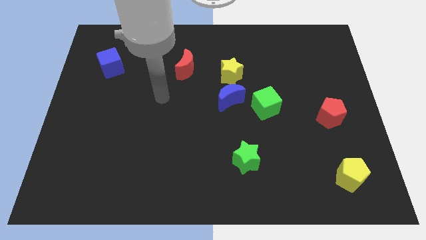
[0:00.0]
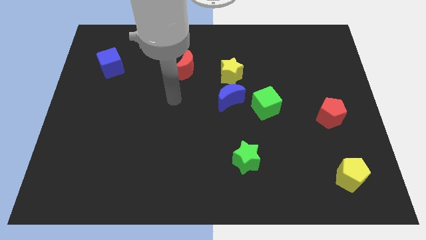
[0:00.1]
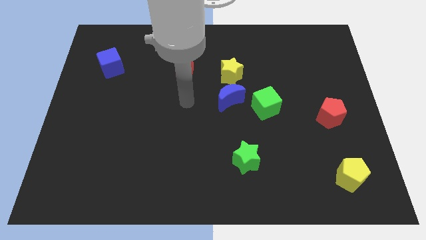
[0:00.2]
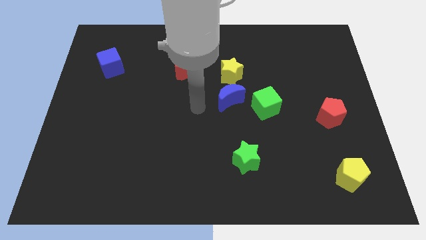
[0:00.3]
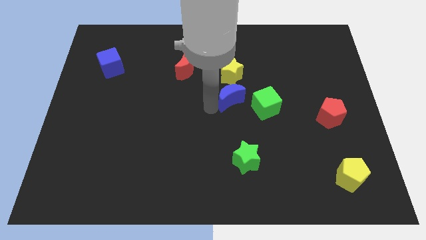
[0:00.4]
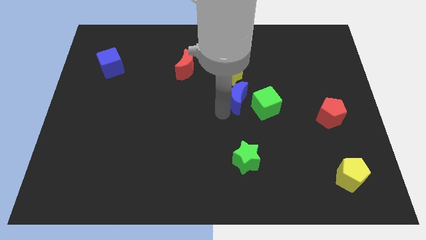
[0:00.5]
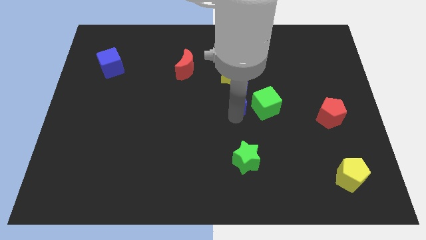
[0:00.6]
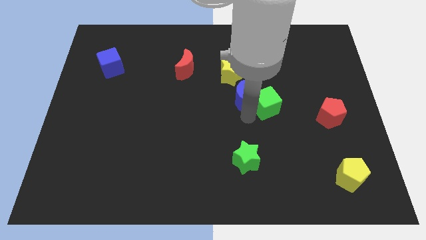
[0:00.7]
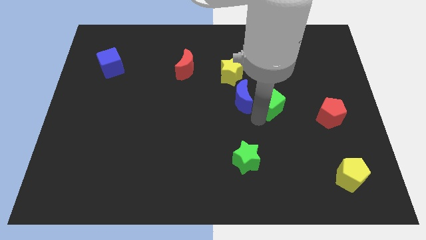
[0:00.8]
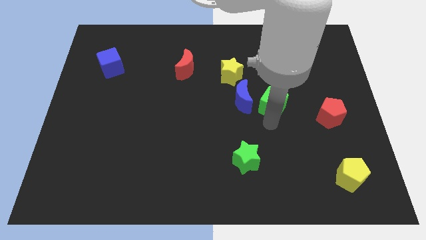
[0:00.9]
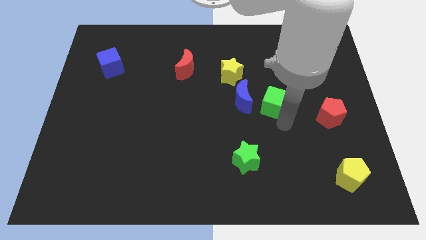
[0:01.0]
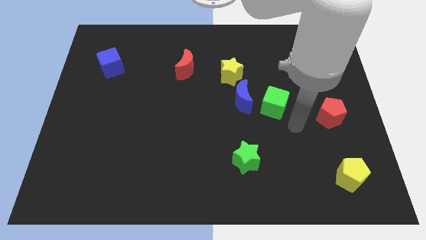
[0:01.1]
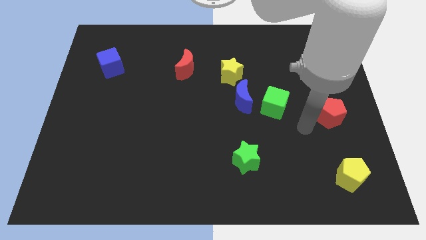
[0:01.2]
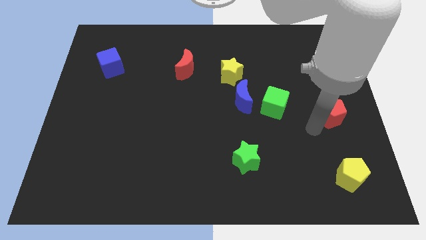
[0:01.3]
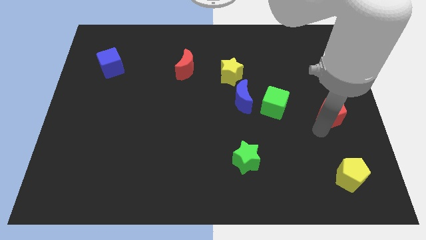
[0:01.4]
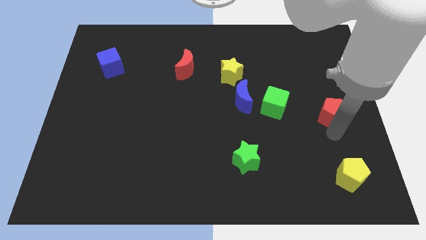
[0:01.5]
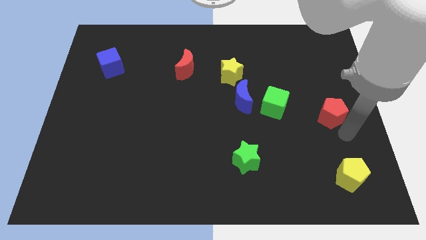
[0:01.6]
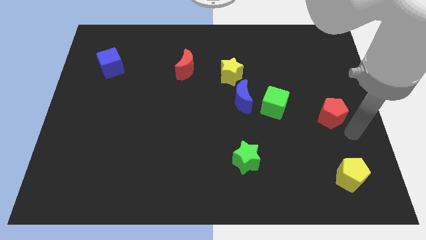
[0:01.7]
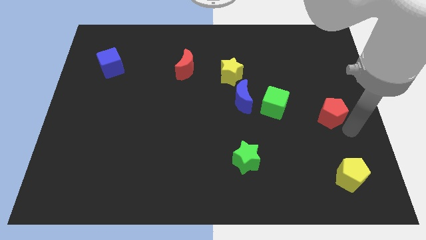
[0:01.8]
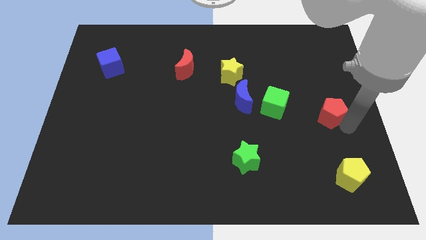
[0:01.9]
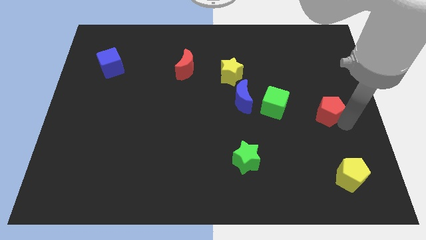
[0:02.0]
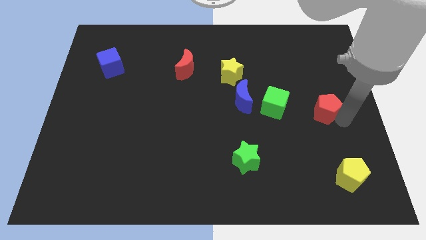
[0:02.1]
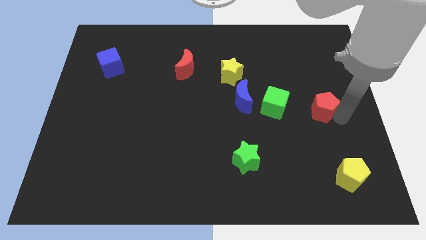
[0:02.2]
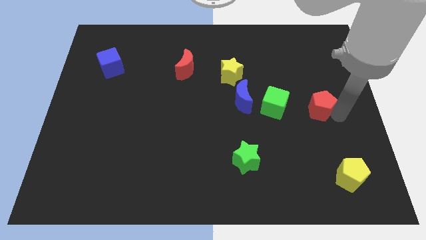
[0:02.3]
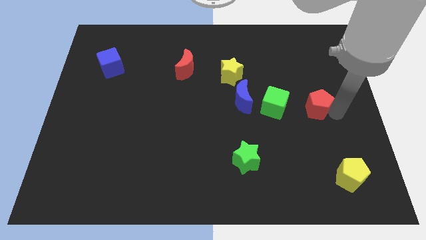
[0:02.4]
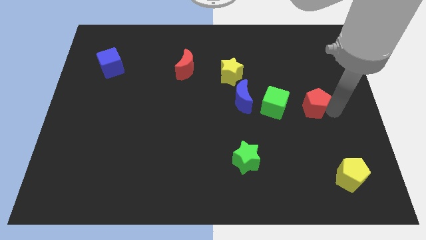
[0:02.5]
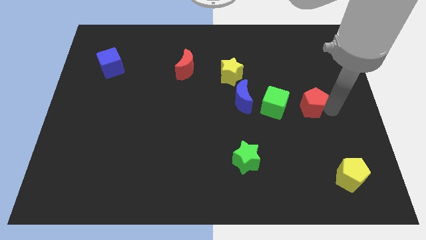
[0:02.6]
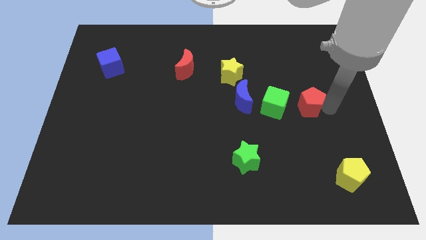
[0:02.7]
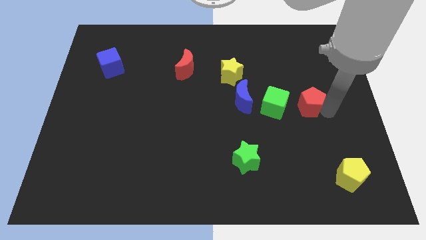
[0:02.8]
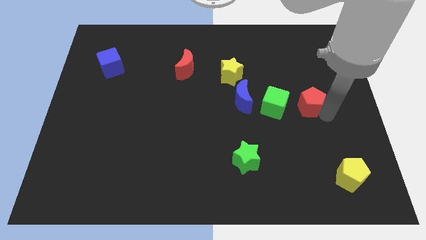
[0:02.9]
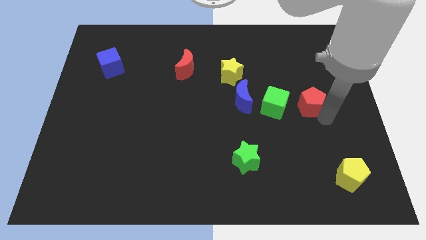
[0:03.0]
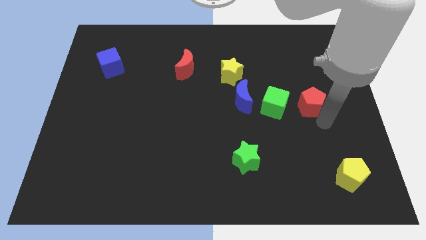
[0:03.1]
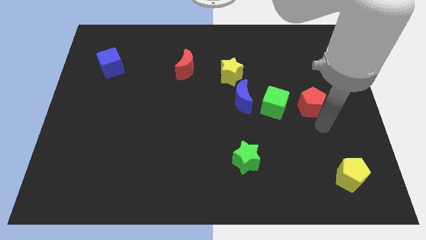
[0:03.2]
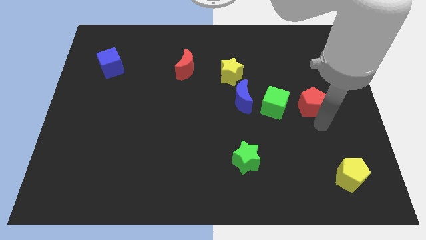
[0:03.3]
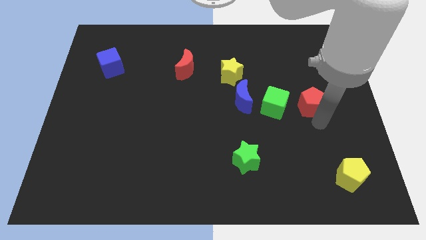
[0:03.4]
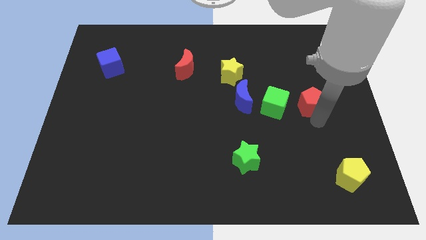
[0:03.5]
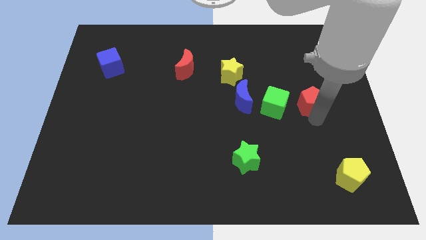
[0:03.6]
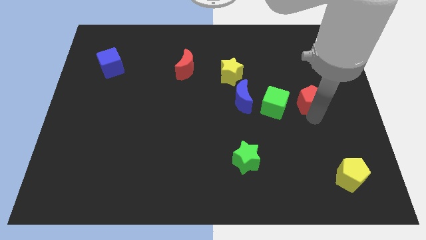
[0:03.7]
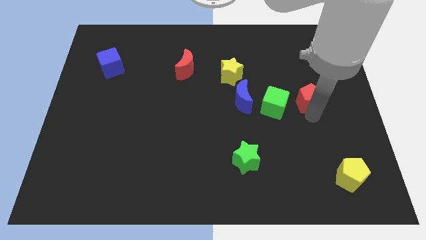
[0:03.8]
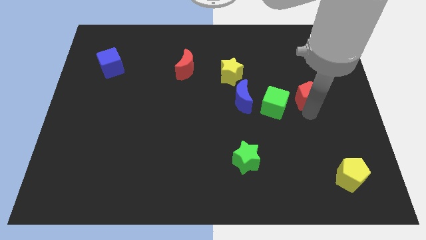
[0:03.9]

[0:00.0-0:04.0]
slightly push the red pentagon up and to the left diagonally

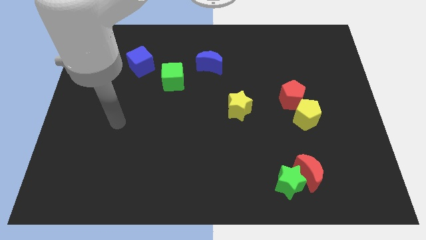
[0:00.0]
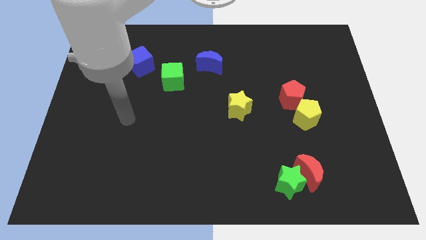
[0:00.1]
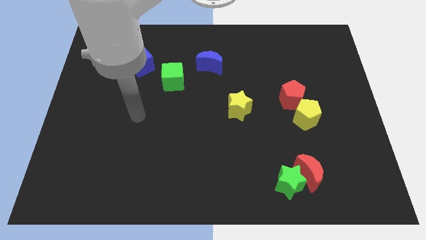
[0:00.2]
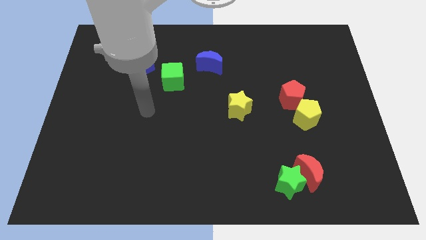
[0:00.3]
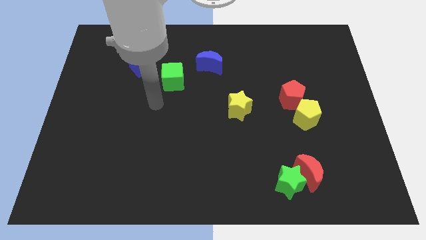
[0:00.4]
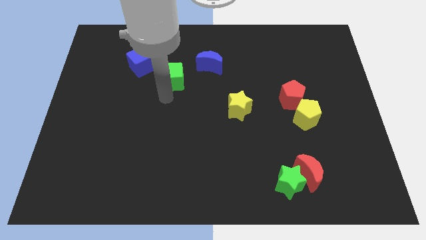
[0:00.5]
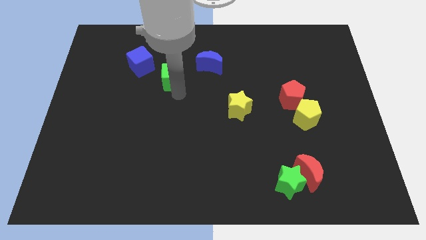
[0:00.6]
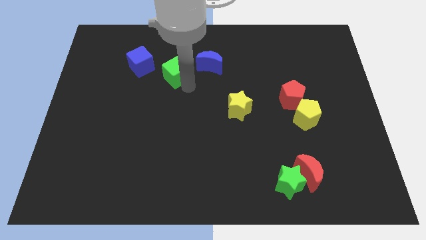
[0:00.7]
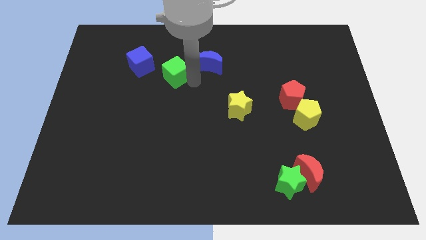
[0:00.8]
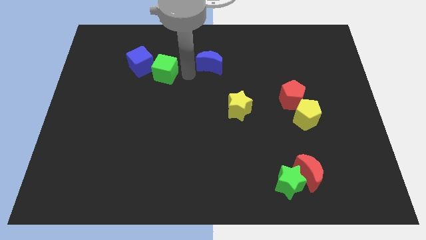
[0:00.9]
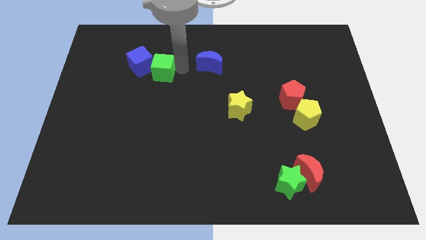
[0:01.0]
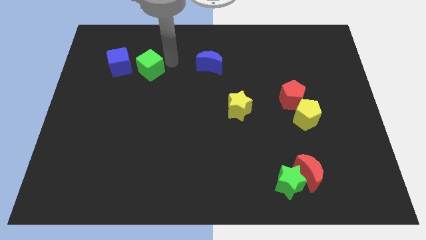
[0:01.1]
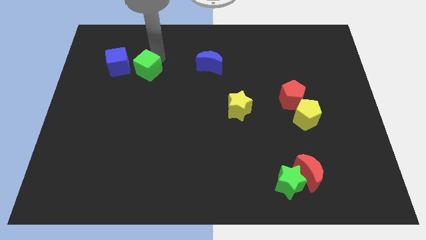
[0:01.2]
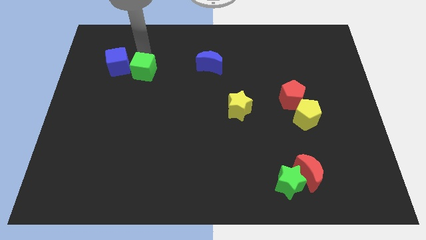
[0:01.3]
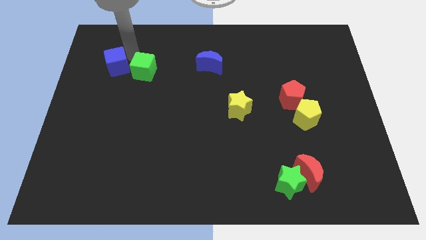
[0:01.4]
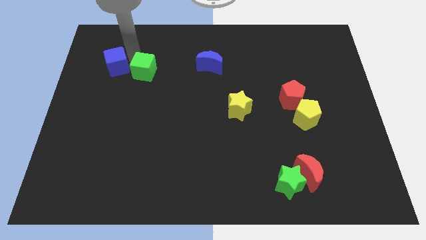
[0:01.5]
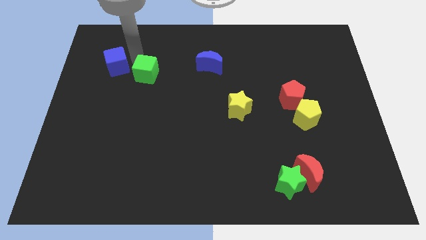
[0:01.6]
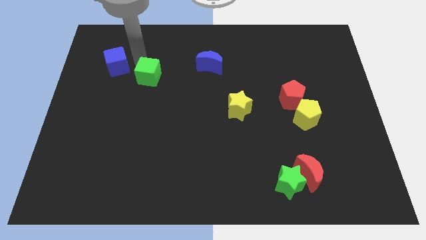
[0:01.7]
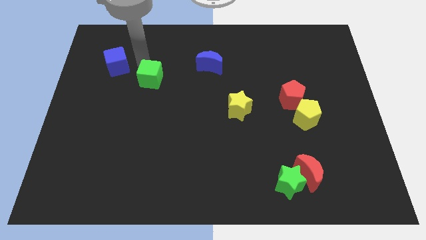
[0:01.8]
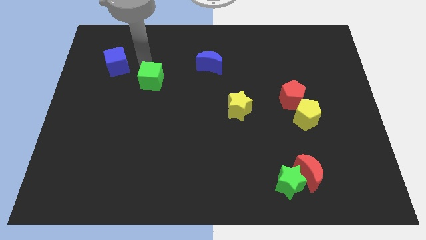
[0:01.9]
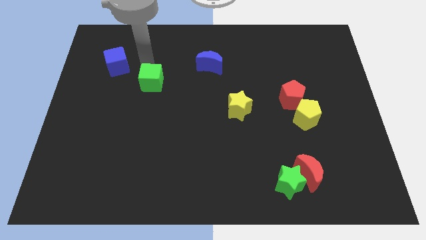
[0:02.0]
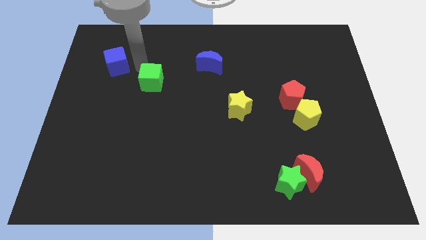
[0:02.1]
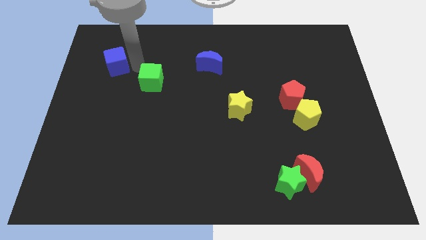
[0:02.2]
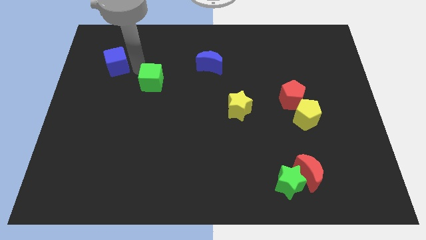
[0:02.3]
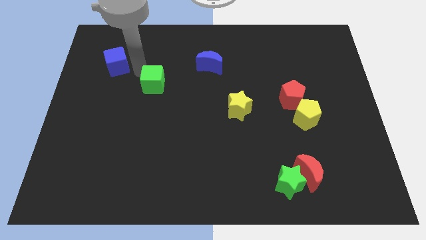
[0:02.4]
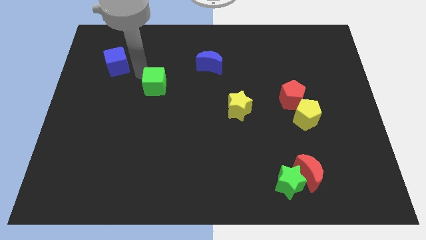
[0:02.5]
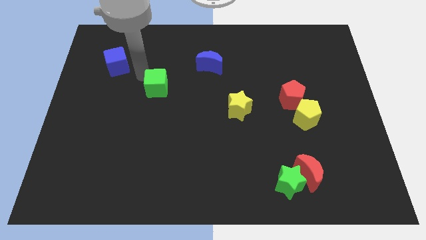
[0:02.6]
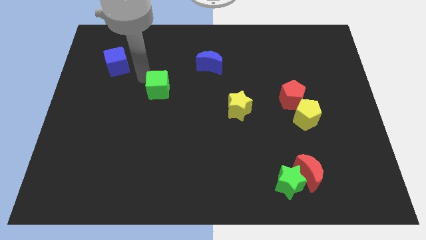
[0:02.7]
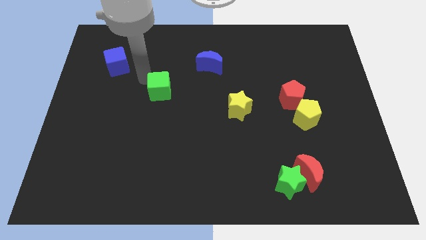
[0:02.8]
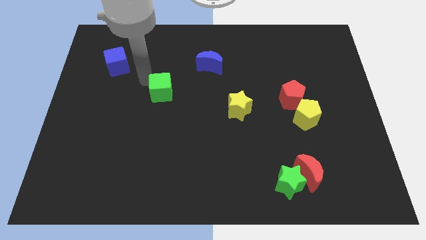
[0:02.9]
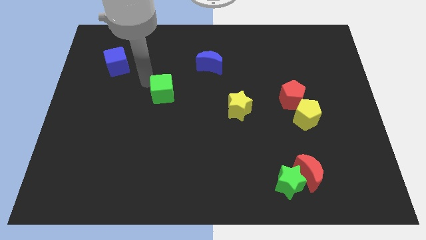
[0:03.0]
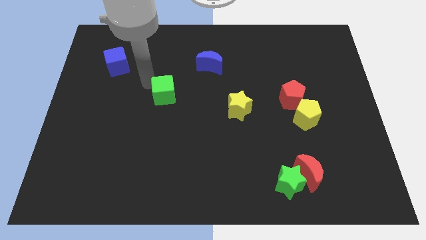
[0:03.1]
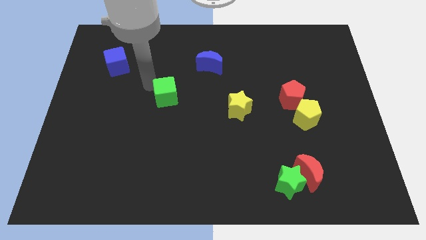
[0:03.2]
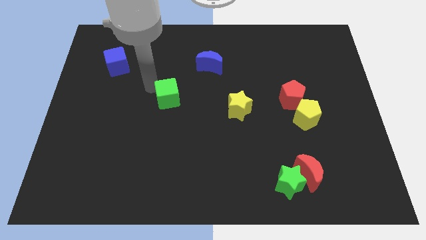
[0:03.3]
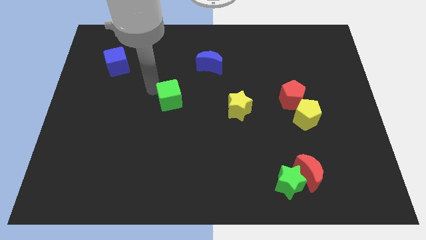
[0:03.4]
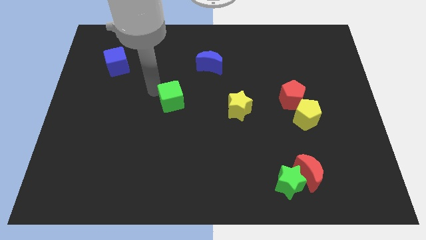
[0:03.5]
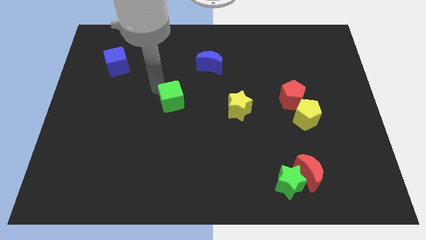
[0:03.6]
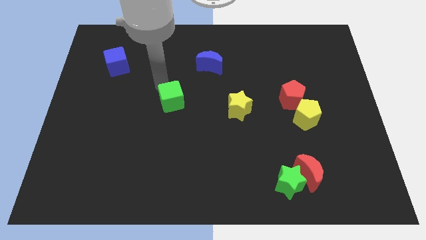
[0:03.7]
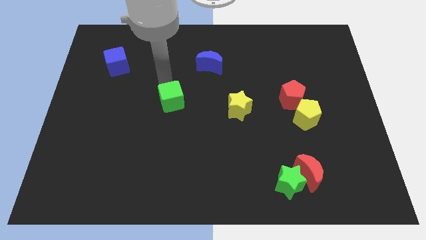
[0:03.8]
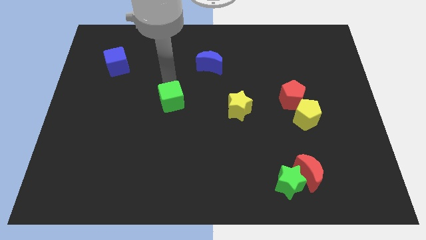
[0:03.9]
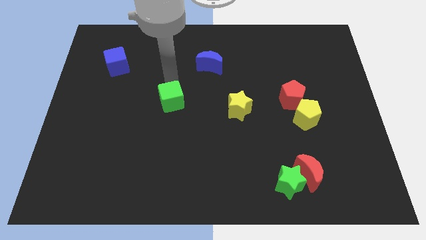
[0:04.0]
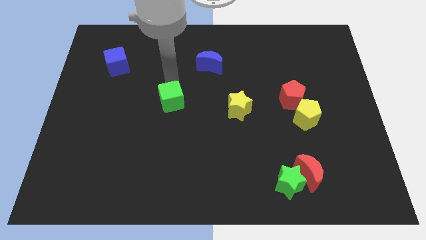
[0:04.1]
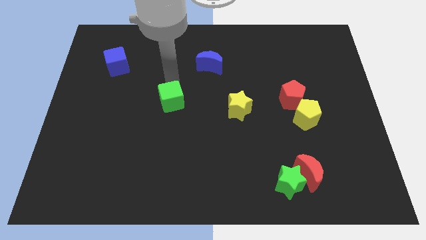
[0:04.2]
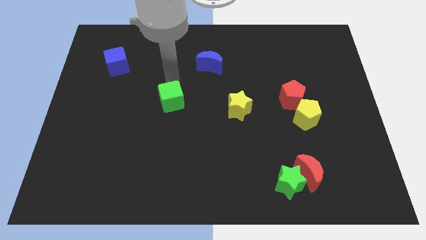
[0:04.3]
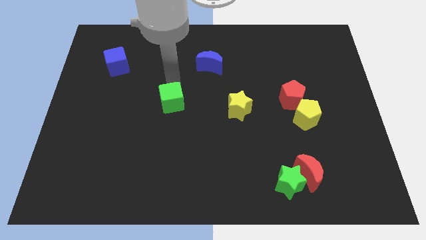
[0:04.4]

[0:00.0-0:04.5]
push the green cube a little down
